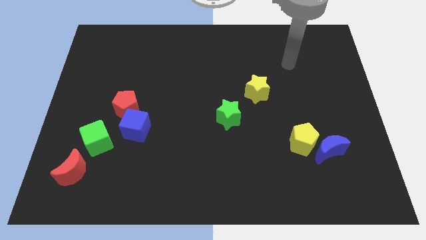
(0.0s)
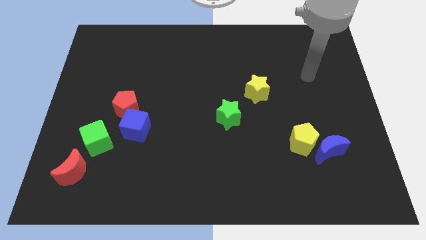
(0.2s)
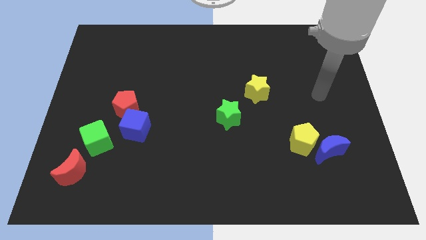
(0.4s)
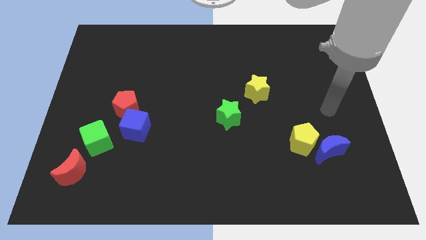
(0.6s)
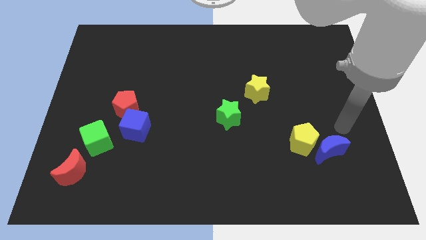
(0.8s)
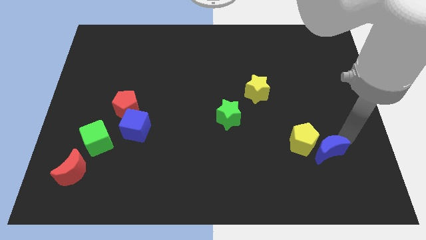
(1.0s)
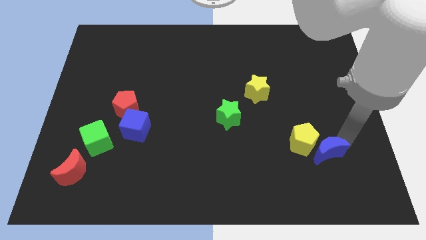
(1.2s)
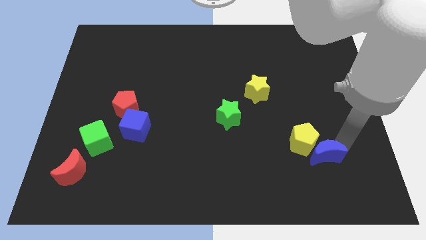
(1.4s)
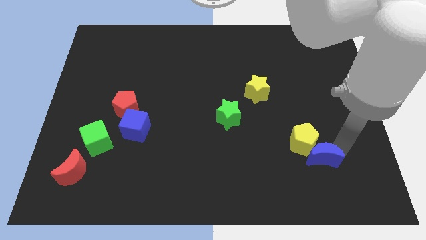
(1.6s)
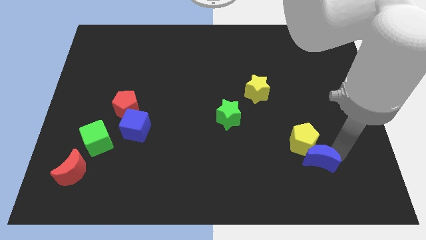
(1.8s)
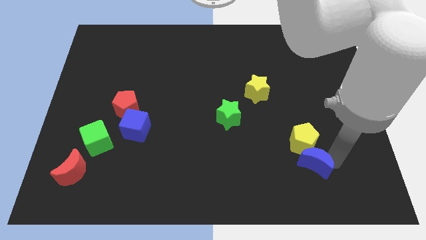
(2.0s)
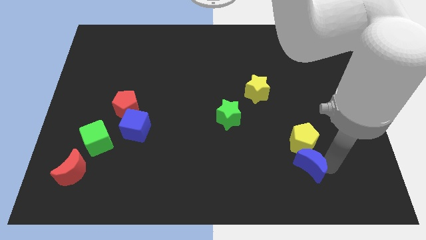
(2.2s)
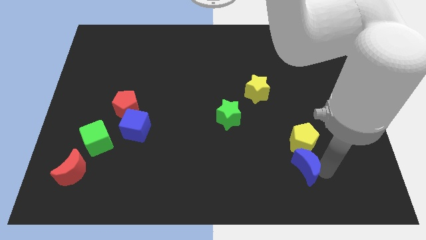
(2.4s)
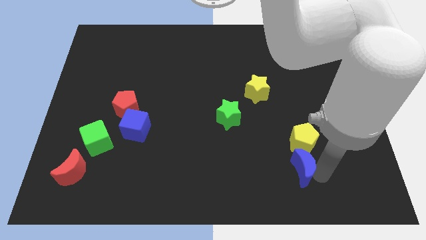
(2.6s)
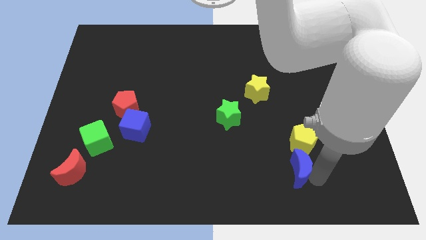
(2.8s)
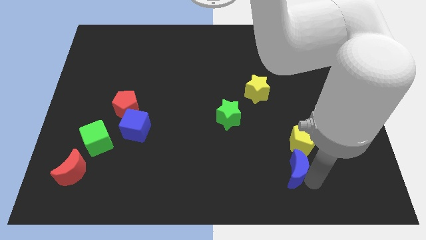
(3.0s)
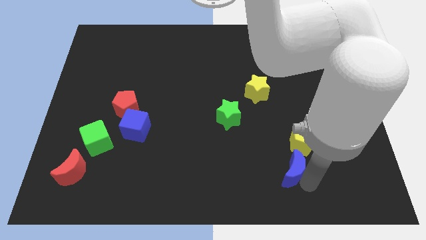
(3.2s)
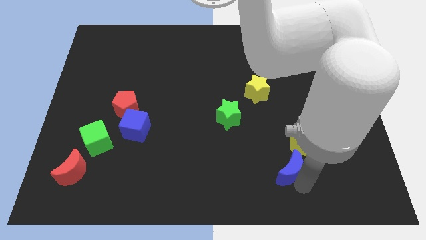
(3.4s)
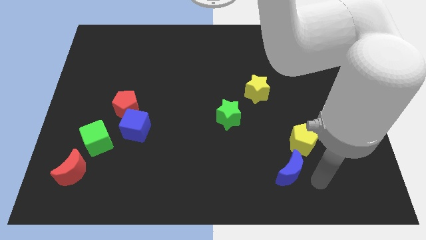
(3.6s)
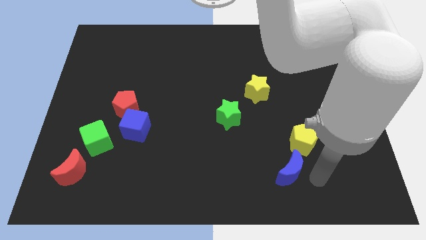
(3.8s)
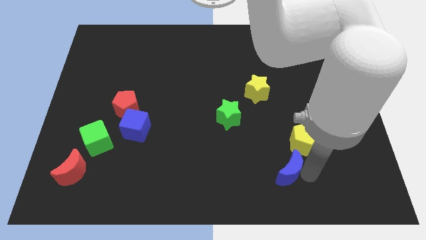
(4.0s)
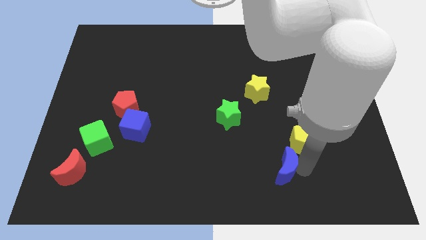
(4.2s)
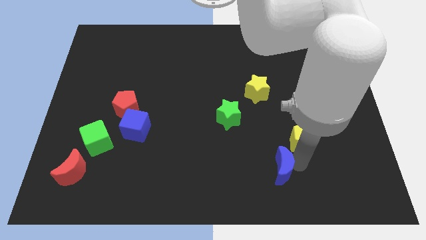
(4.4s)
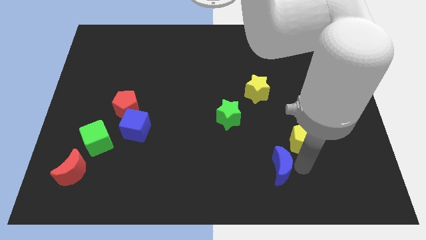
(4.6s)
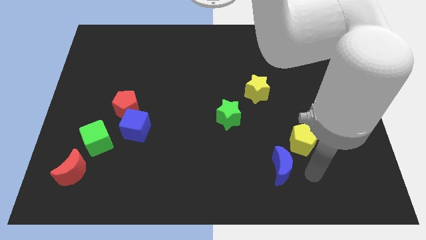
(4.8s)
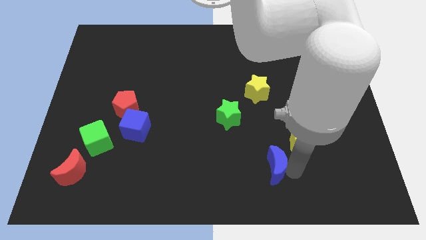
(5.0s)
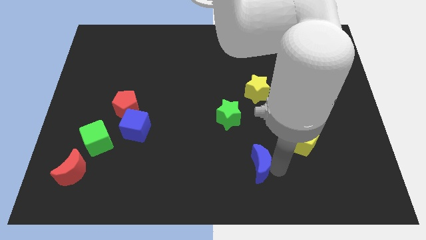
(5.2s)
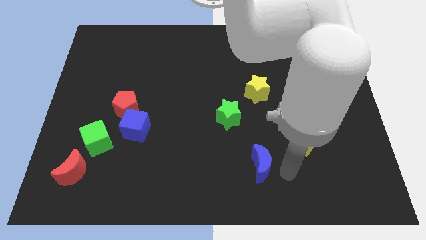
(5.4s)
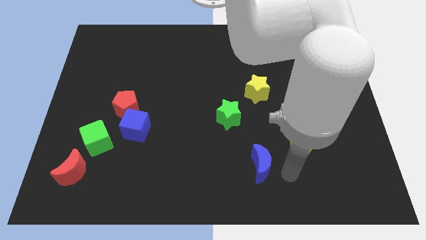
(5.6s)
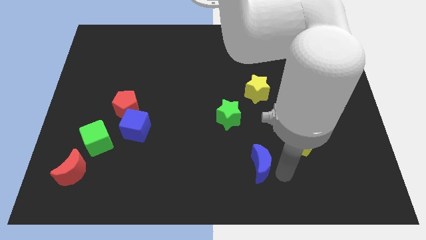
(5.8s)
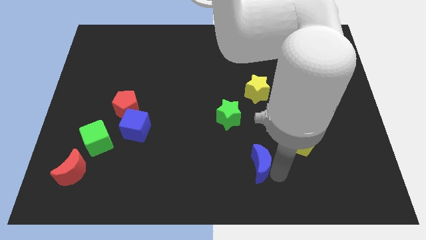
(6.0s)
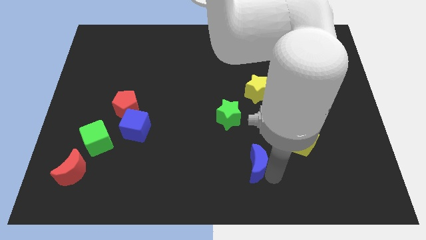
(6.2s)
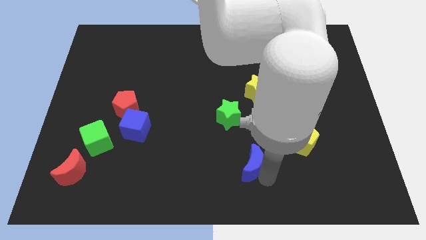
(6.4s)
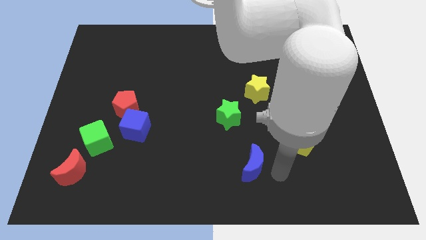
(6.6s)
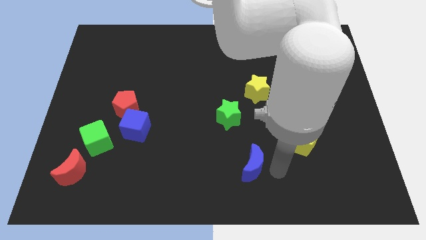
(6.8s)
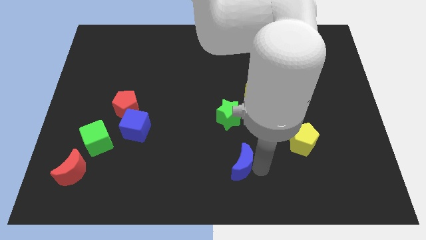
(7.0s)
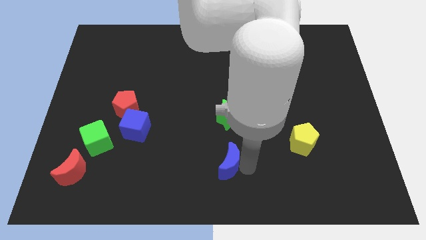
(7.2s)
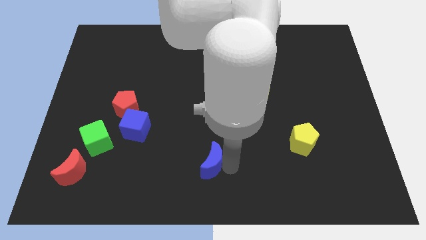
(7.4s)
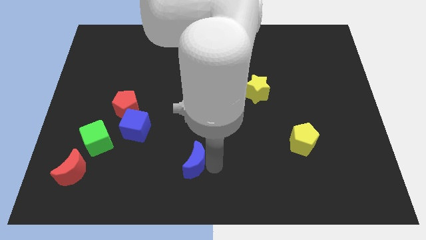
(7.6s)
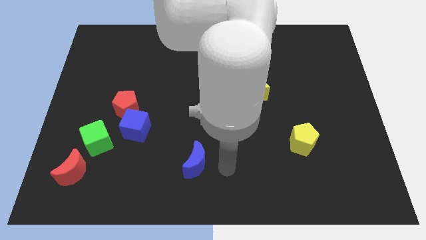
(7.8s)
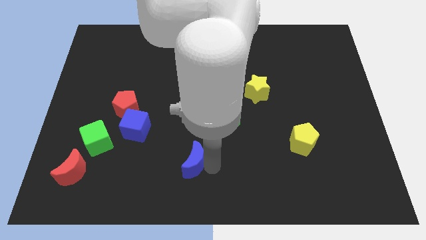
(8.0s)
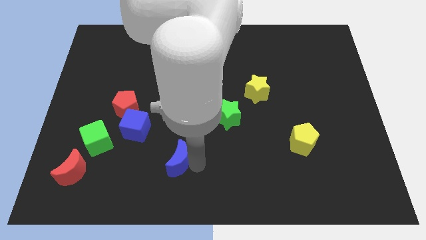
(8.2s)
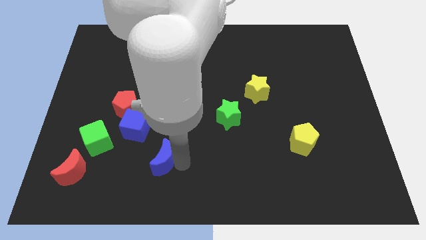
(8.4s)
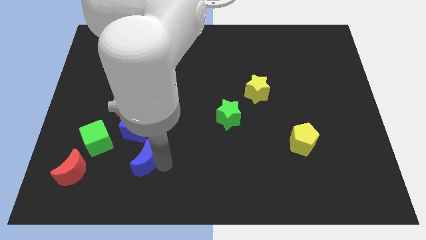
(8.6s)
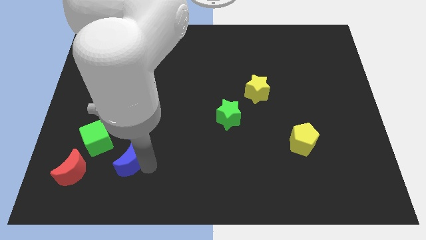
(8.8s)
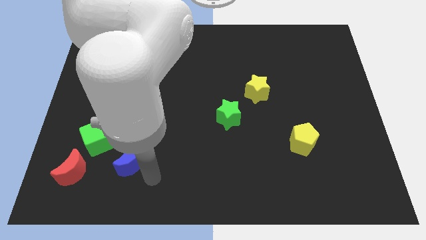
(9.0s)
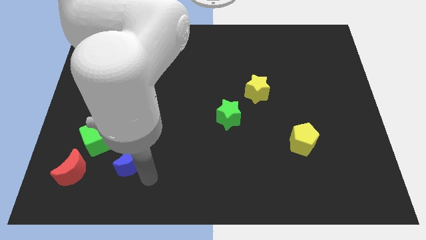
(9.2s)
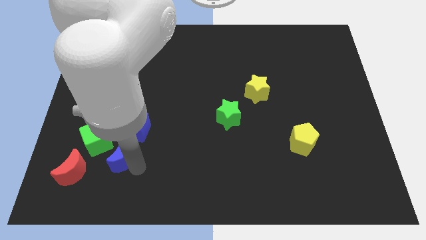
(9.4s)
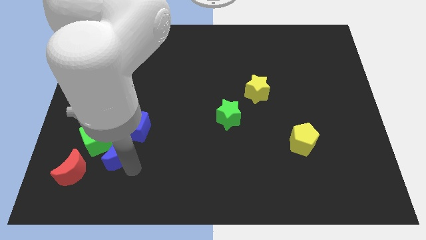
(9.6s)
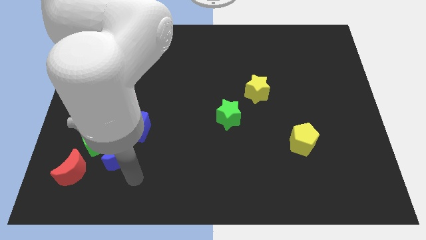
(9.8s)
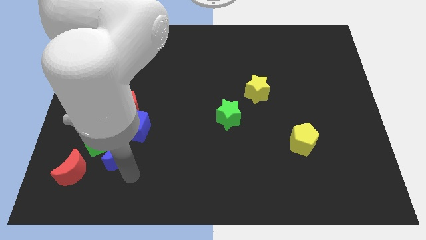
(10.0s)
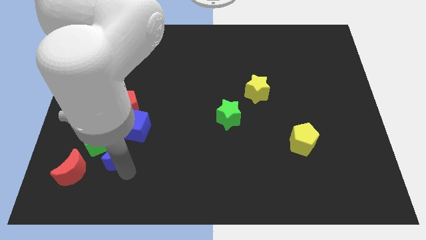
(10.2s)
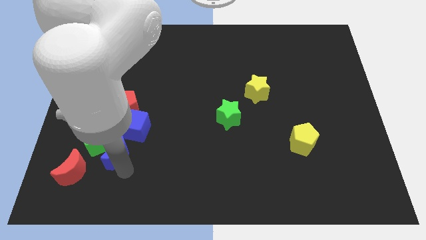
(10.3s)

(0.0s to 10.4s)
slide the blue moon next to the green cube

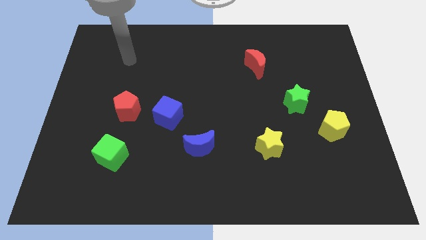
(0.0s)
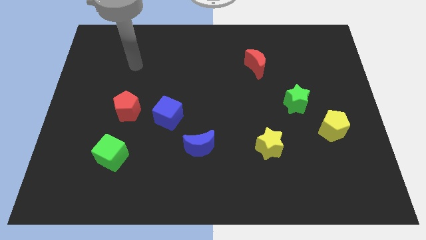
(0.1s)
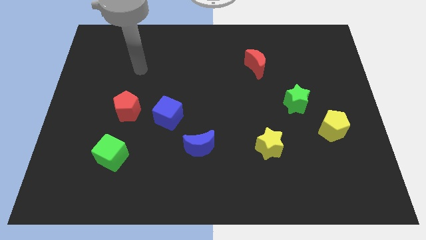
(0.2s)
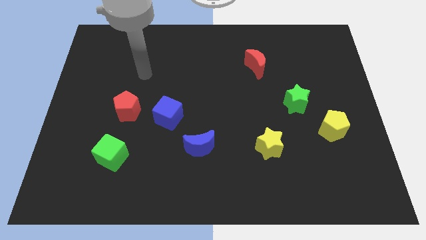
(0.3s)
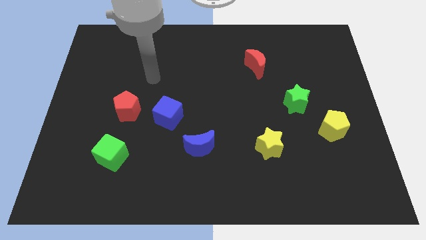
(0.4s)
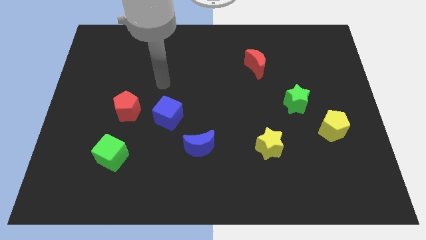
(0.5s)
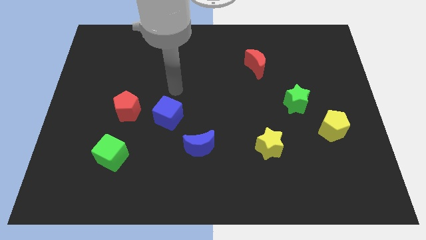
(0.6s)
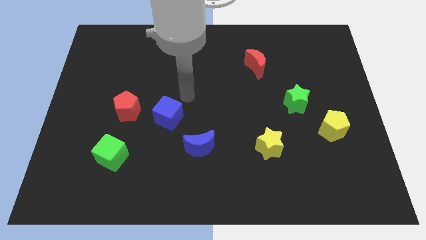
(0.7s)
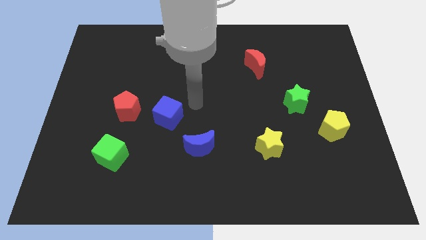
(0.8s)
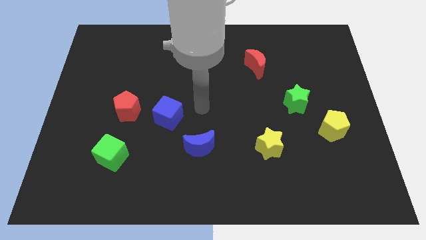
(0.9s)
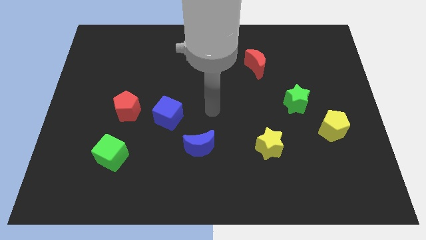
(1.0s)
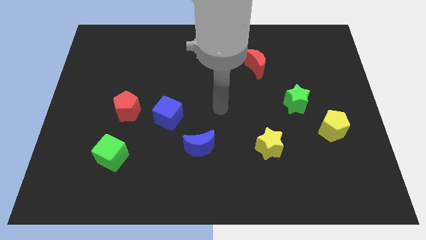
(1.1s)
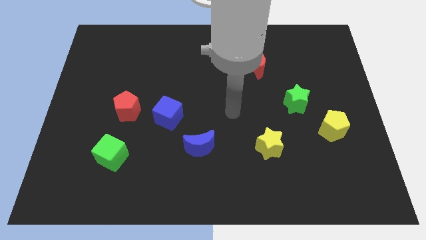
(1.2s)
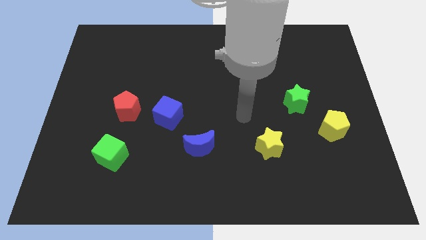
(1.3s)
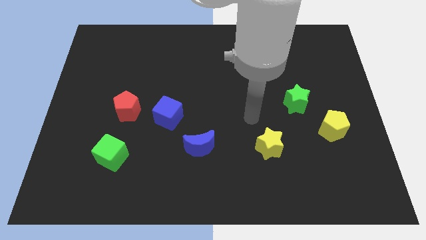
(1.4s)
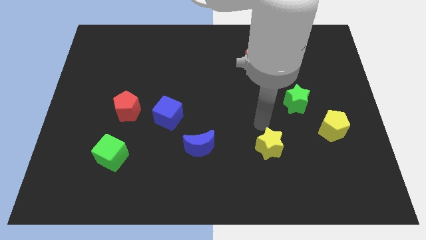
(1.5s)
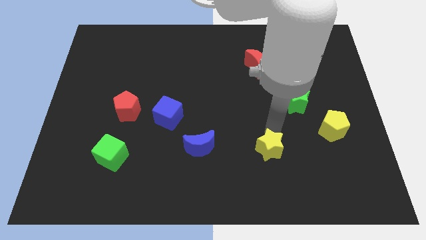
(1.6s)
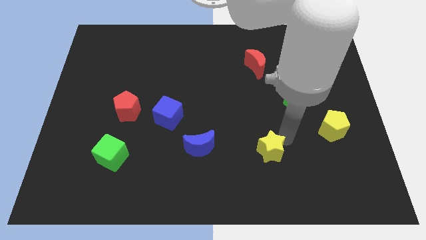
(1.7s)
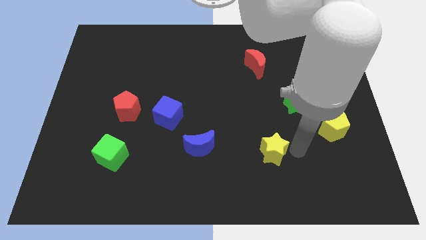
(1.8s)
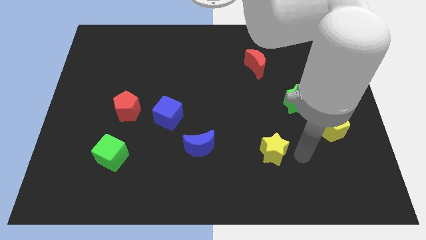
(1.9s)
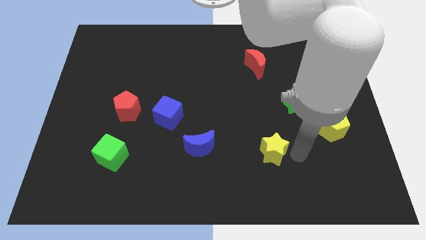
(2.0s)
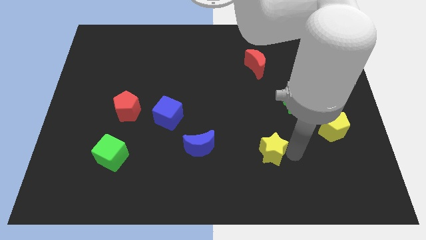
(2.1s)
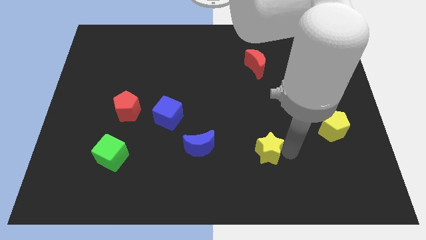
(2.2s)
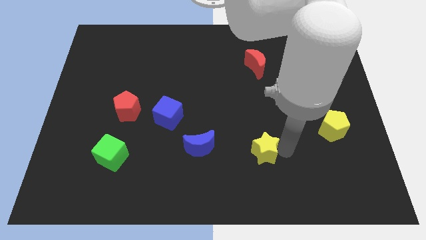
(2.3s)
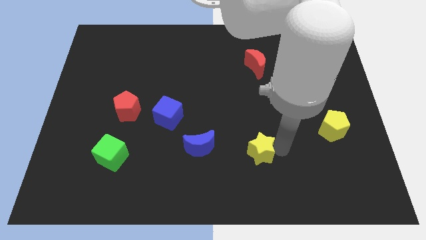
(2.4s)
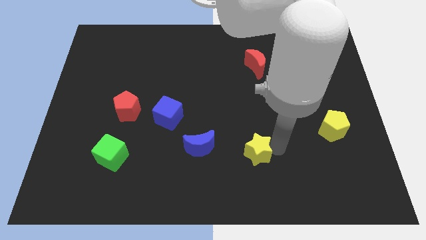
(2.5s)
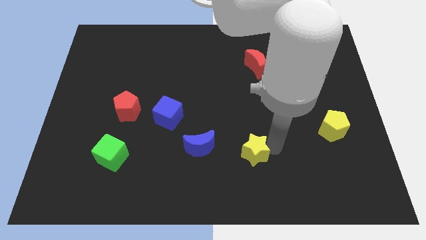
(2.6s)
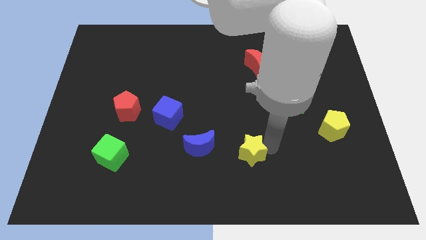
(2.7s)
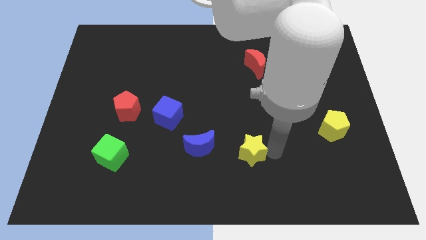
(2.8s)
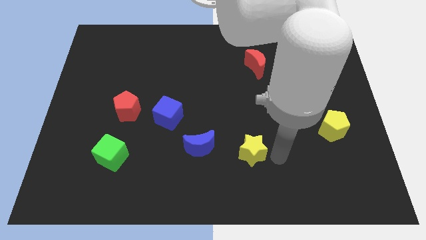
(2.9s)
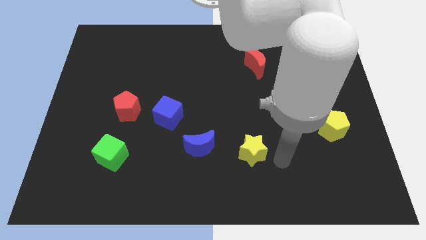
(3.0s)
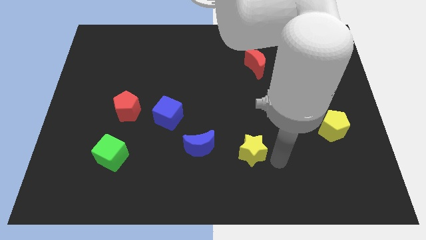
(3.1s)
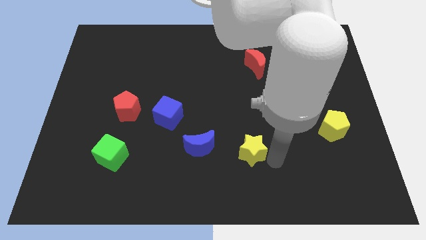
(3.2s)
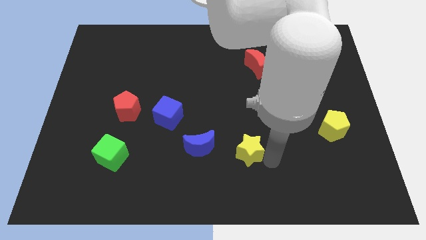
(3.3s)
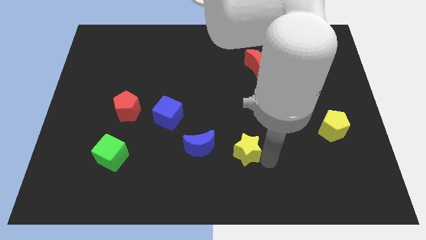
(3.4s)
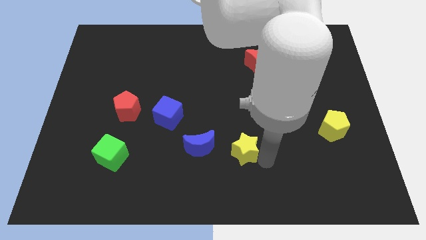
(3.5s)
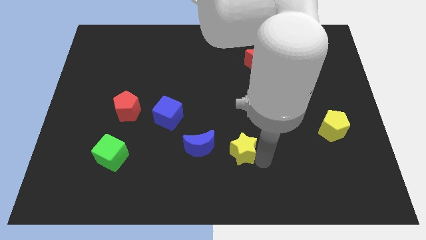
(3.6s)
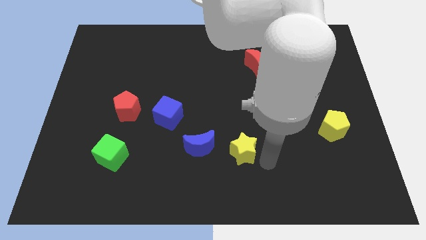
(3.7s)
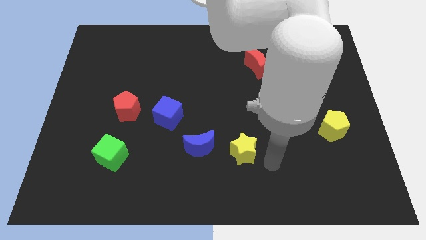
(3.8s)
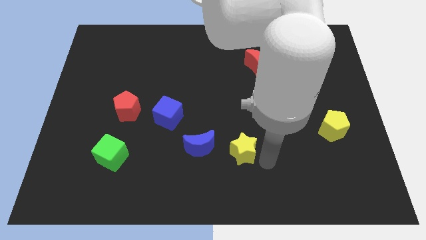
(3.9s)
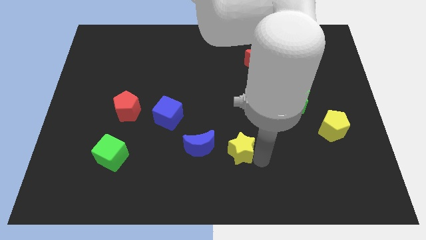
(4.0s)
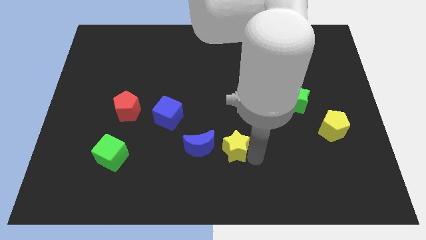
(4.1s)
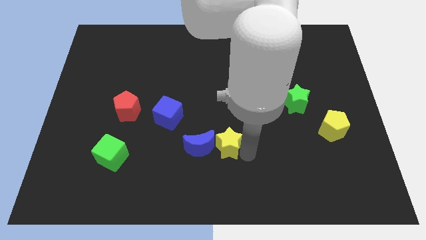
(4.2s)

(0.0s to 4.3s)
push the yellow star to the blue moon
